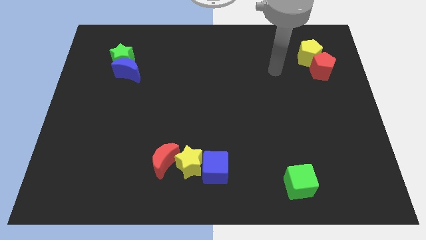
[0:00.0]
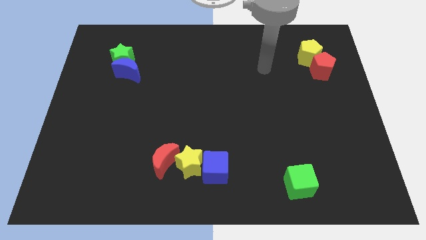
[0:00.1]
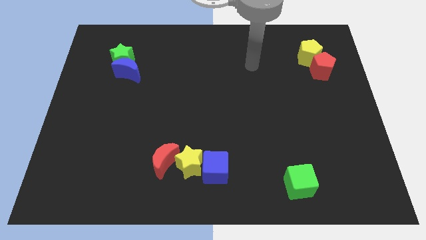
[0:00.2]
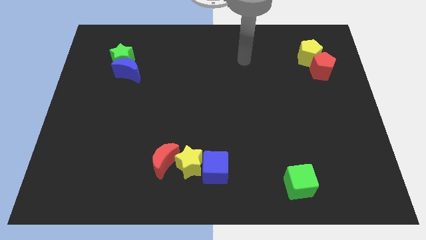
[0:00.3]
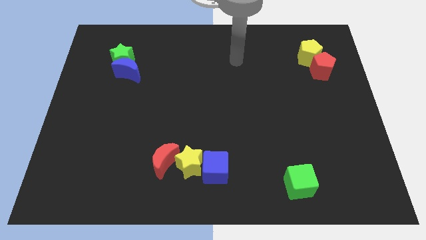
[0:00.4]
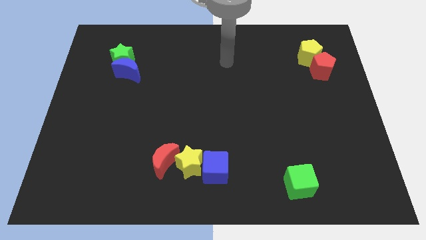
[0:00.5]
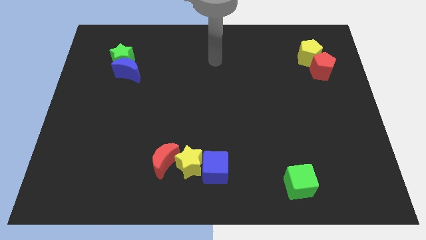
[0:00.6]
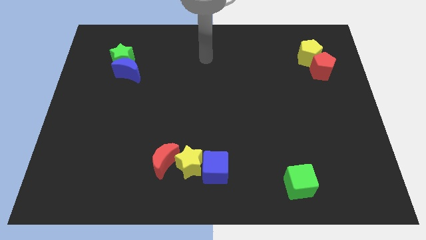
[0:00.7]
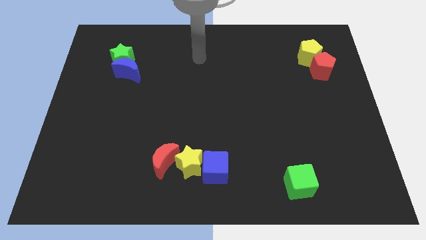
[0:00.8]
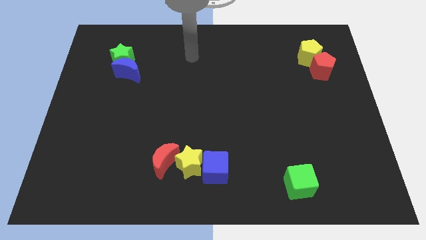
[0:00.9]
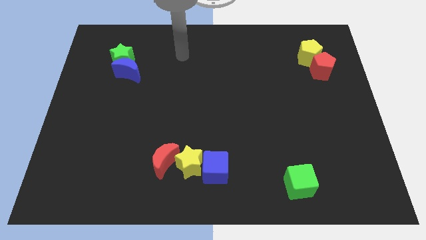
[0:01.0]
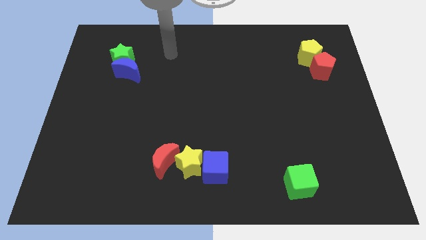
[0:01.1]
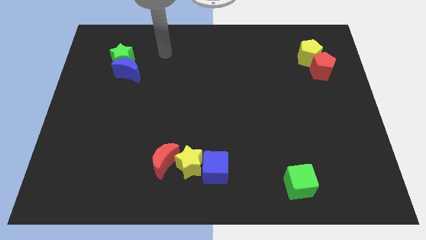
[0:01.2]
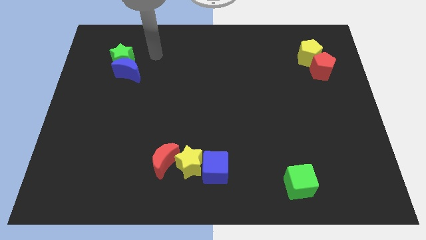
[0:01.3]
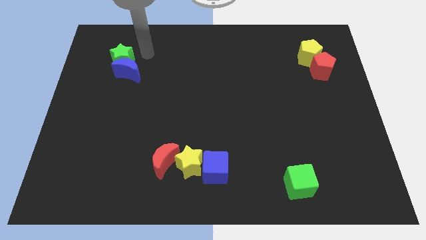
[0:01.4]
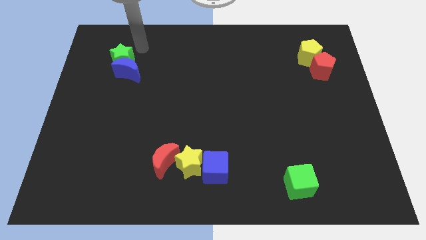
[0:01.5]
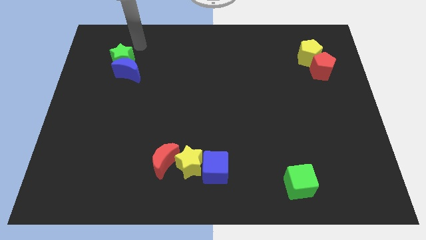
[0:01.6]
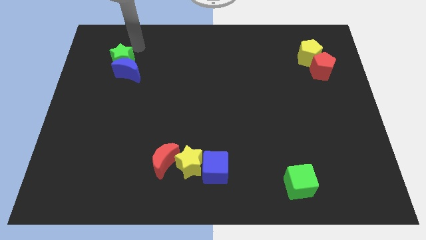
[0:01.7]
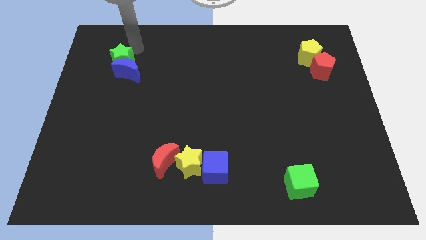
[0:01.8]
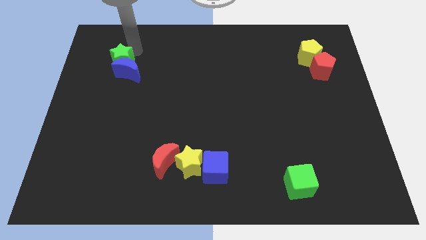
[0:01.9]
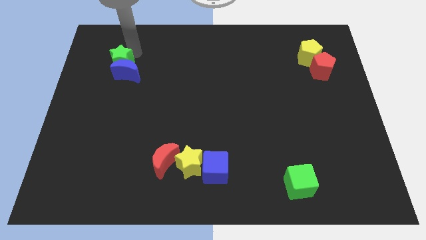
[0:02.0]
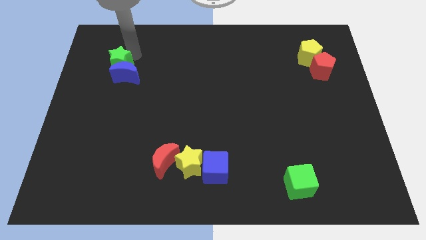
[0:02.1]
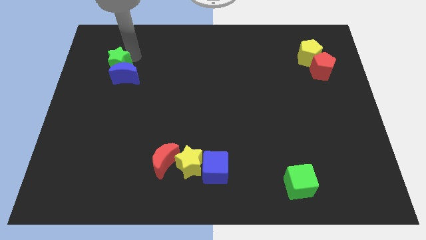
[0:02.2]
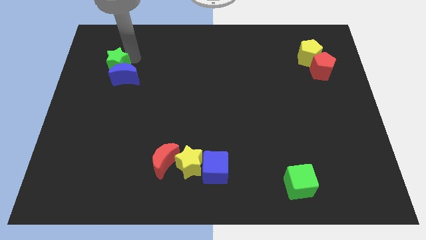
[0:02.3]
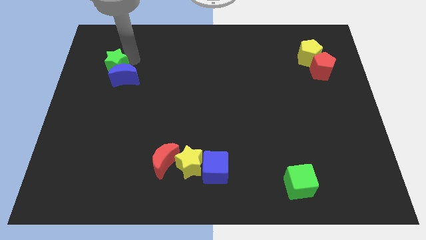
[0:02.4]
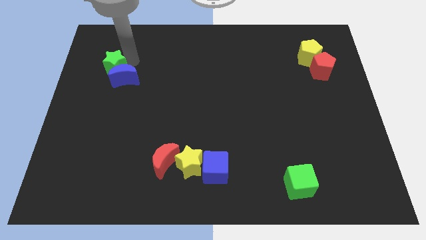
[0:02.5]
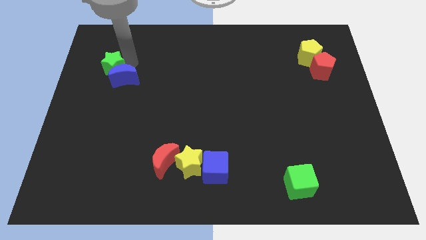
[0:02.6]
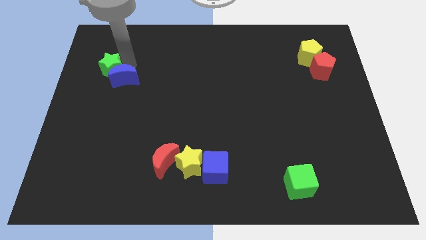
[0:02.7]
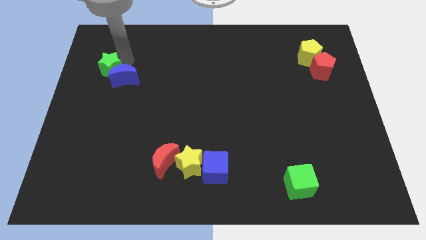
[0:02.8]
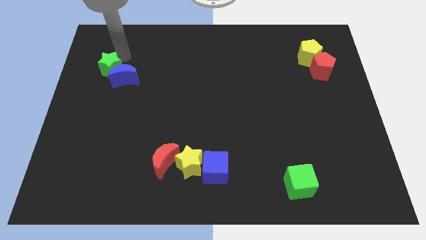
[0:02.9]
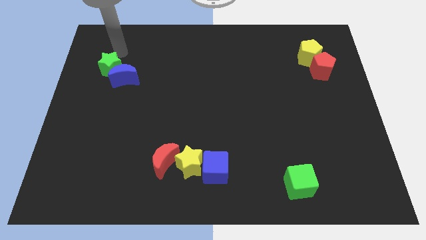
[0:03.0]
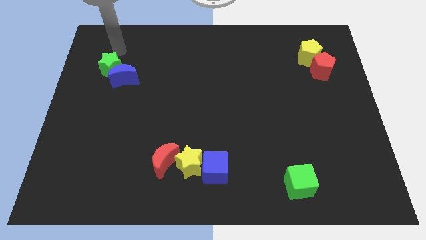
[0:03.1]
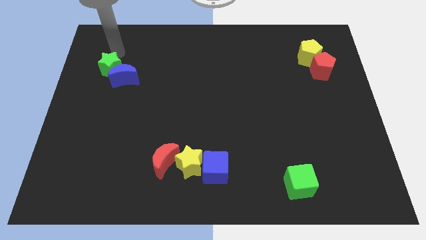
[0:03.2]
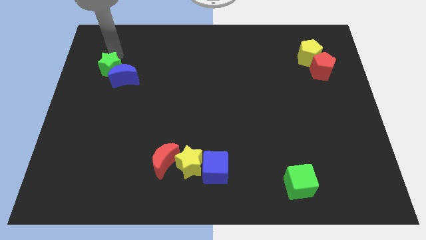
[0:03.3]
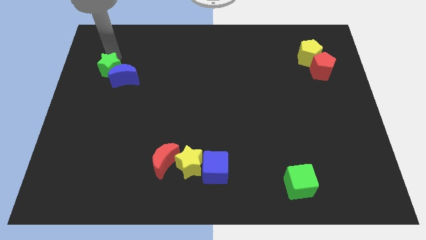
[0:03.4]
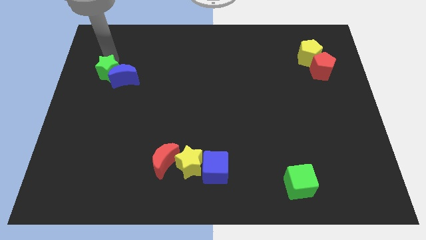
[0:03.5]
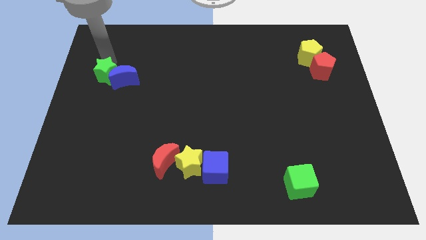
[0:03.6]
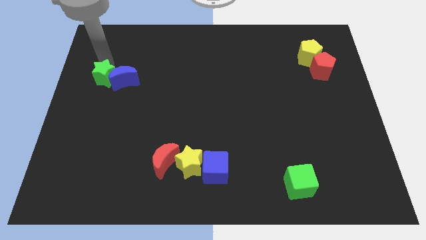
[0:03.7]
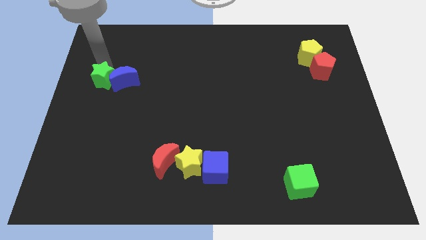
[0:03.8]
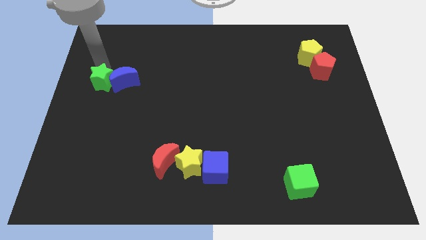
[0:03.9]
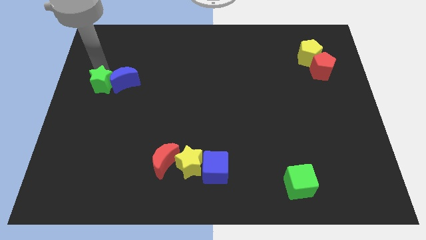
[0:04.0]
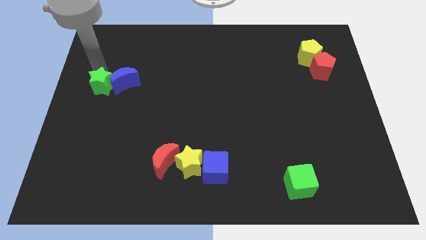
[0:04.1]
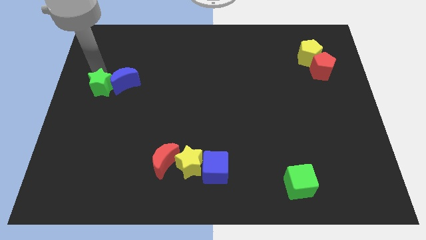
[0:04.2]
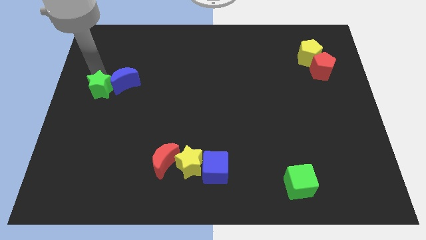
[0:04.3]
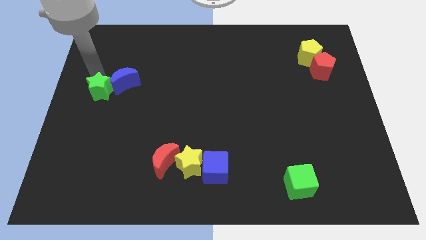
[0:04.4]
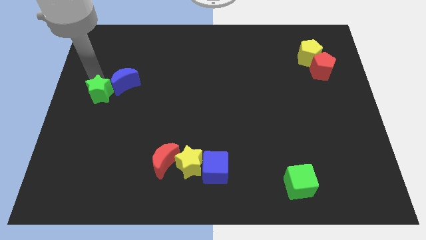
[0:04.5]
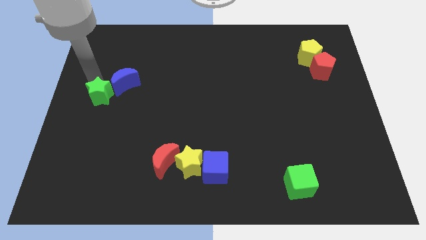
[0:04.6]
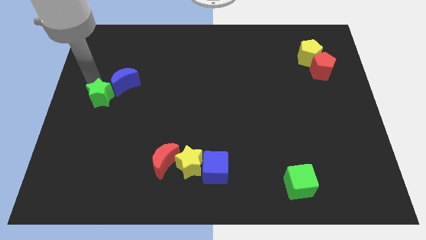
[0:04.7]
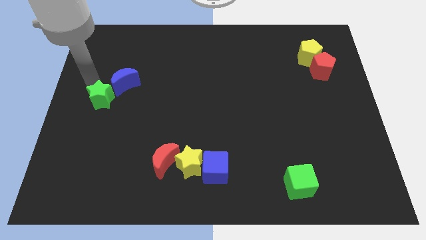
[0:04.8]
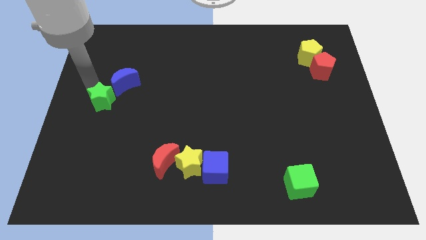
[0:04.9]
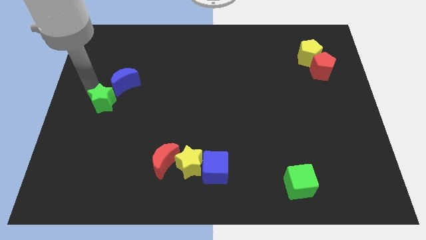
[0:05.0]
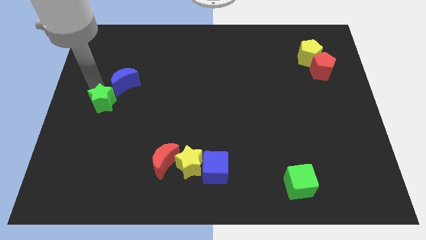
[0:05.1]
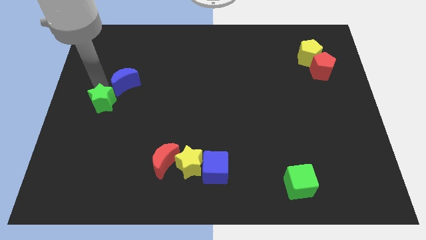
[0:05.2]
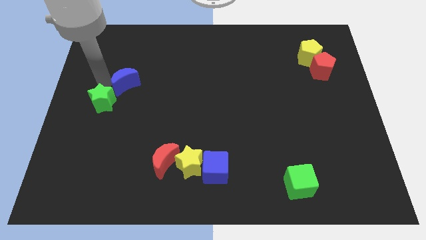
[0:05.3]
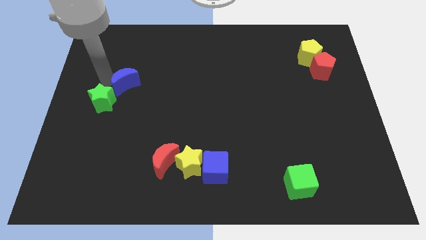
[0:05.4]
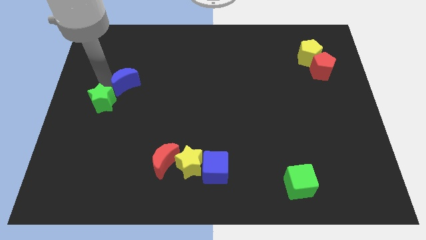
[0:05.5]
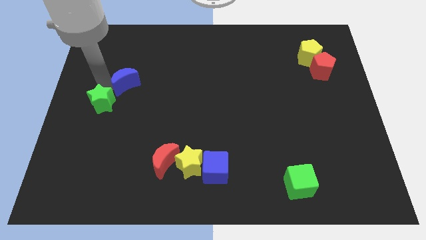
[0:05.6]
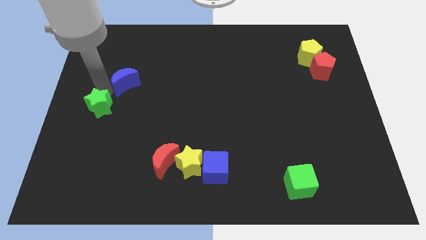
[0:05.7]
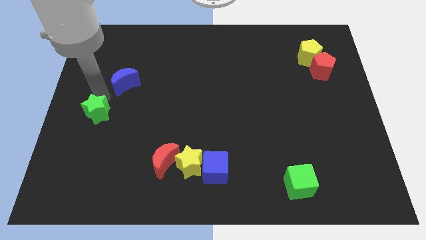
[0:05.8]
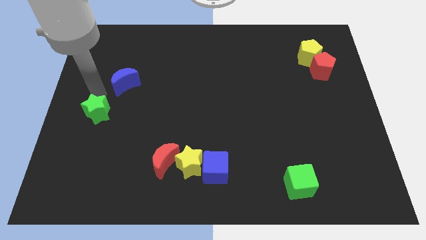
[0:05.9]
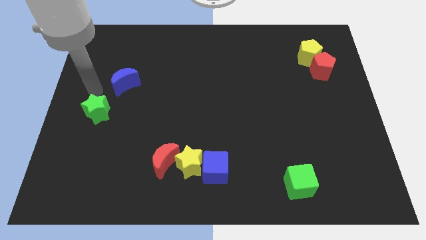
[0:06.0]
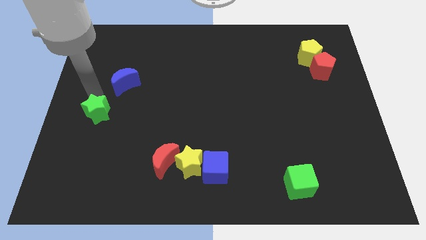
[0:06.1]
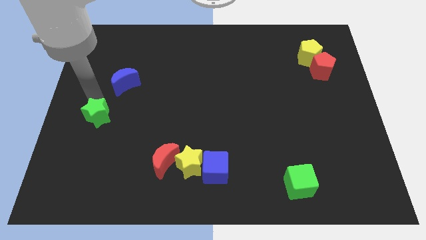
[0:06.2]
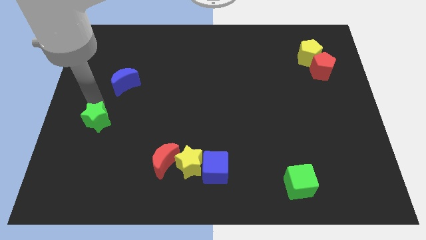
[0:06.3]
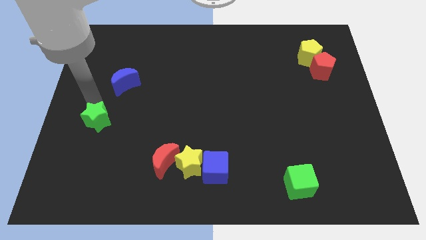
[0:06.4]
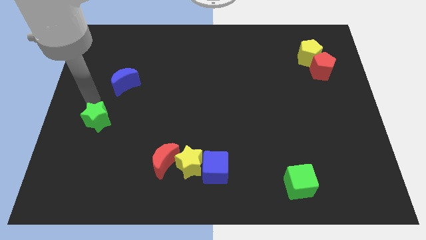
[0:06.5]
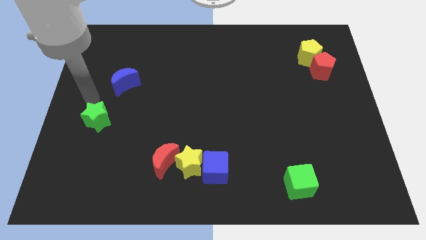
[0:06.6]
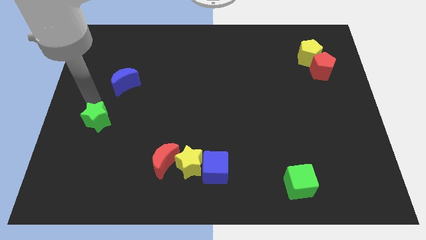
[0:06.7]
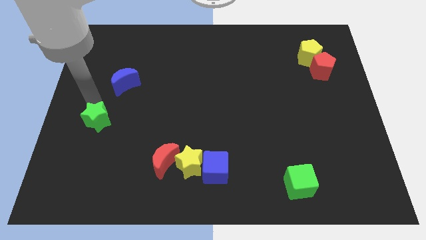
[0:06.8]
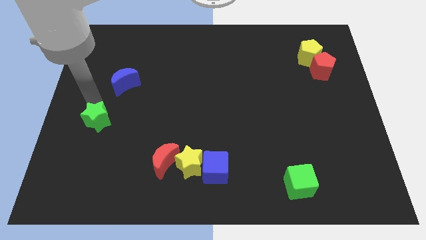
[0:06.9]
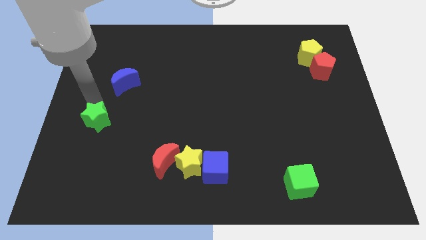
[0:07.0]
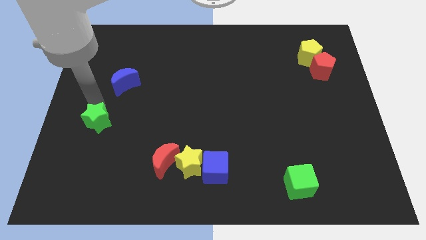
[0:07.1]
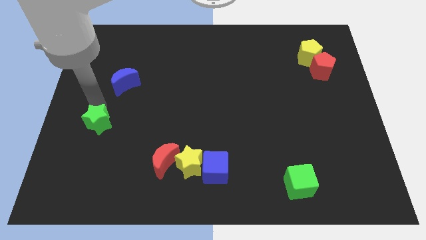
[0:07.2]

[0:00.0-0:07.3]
push the green star down
